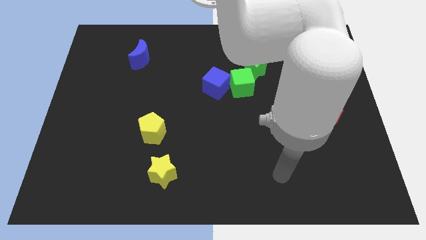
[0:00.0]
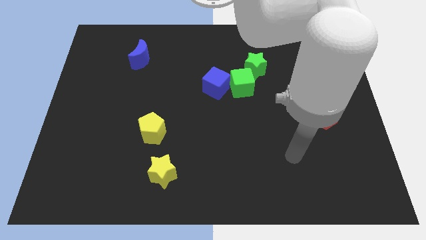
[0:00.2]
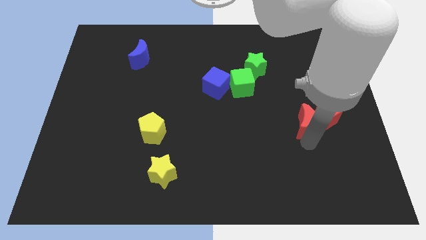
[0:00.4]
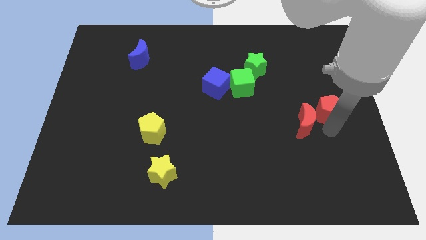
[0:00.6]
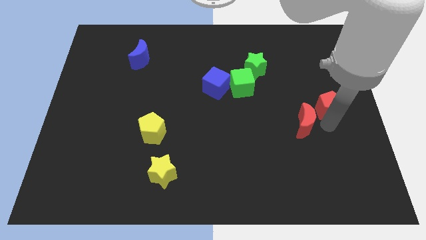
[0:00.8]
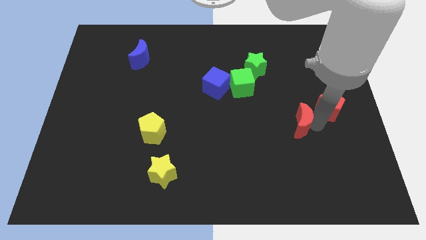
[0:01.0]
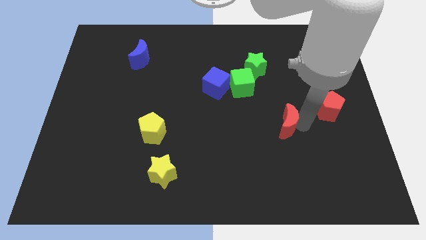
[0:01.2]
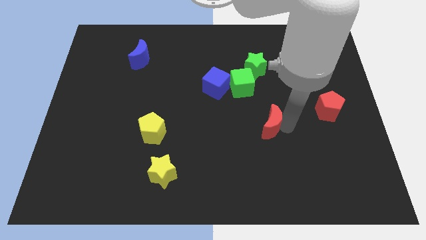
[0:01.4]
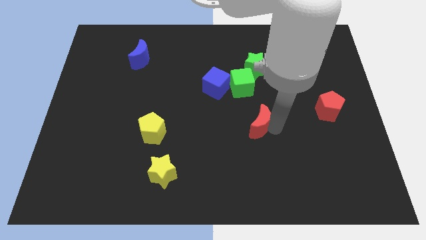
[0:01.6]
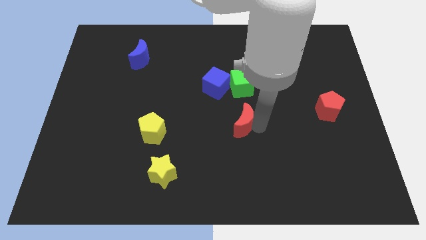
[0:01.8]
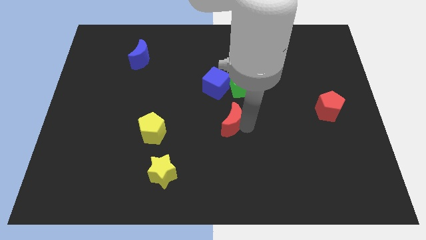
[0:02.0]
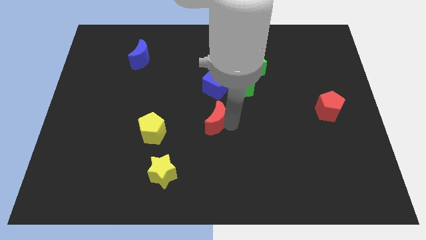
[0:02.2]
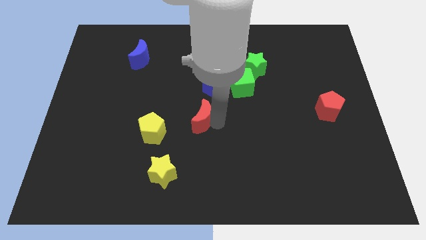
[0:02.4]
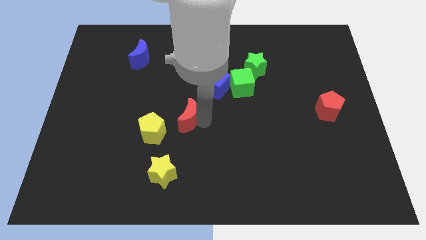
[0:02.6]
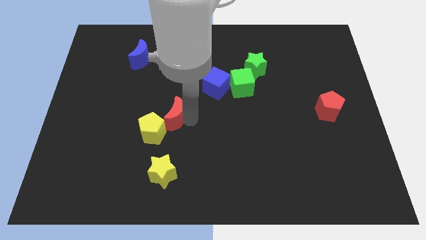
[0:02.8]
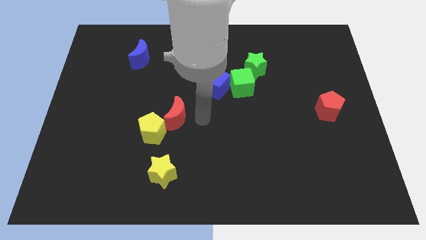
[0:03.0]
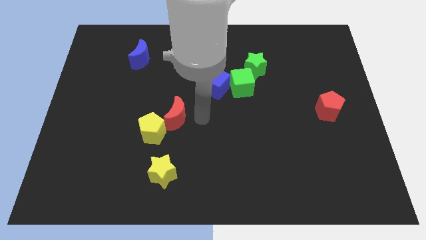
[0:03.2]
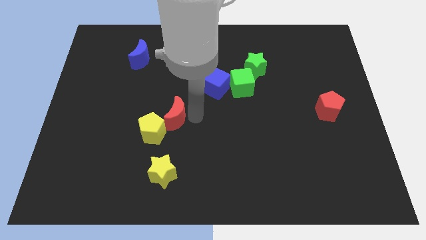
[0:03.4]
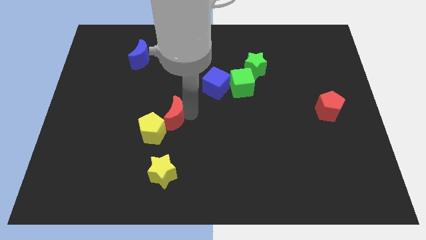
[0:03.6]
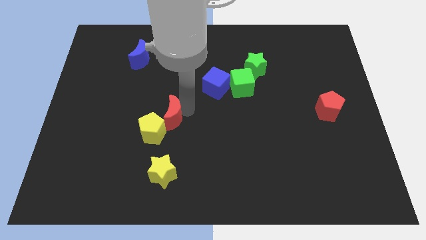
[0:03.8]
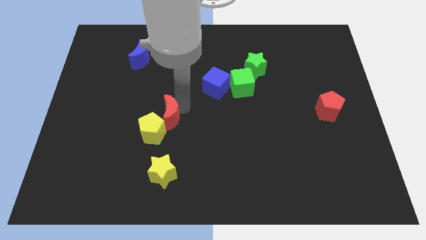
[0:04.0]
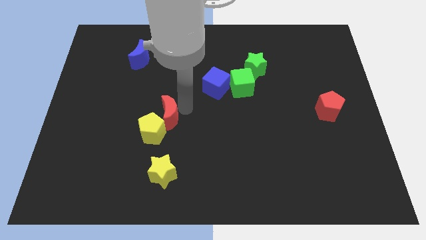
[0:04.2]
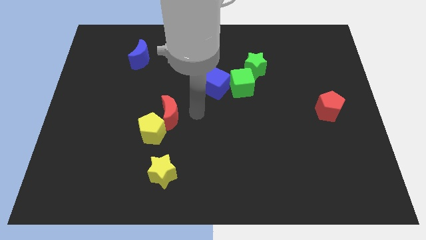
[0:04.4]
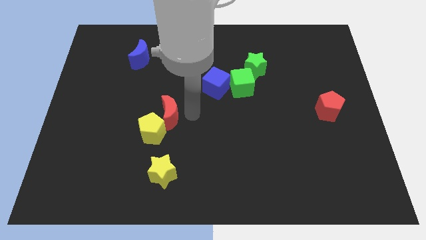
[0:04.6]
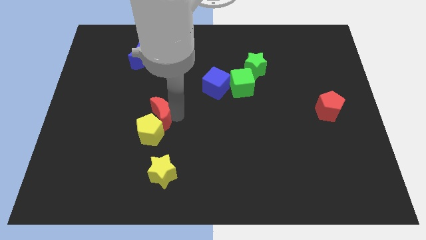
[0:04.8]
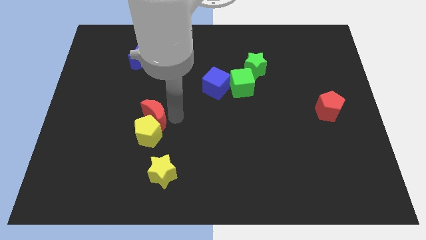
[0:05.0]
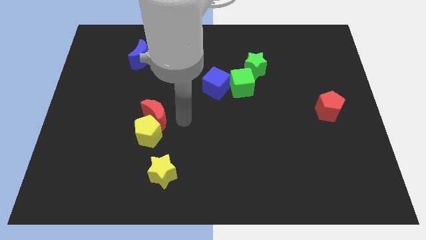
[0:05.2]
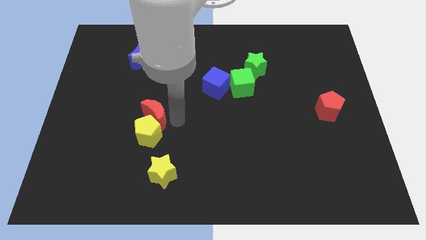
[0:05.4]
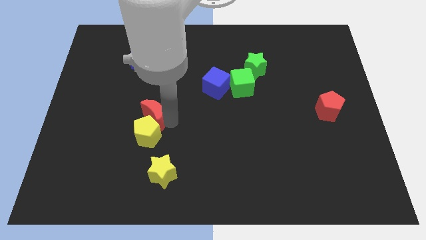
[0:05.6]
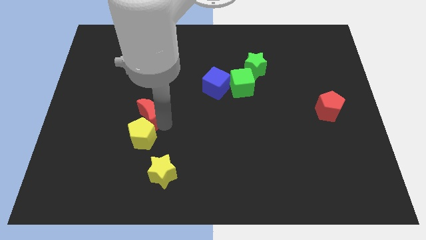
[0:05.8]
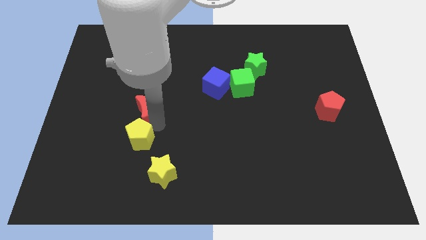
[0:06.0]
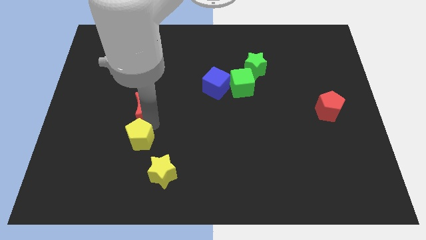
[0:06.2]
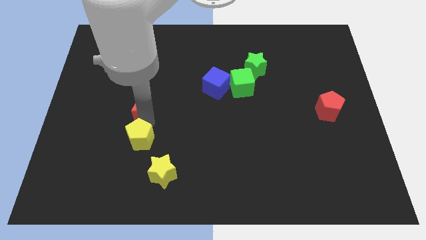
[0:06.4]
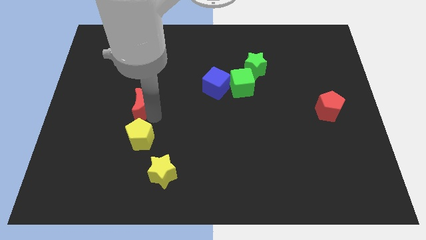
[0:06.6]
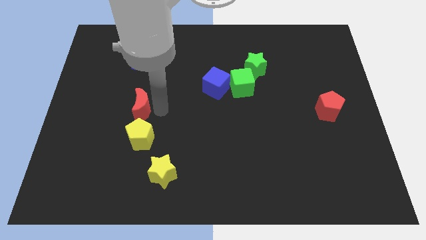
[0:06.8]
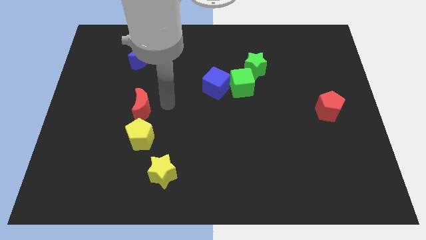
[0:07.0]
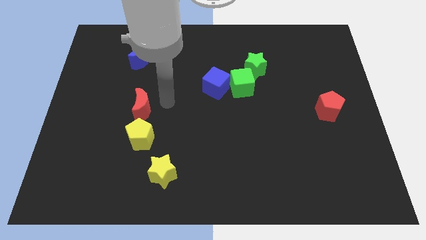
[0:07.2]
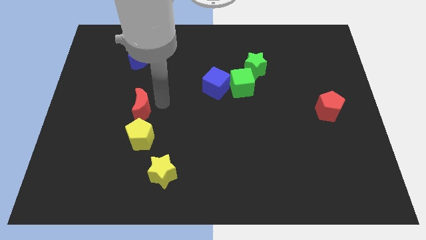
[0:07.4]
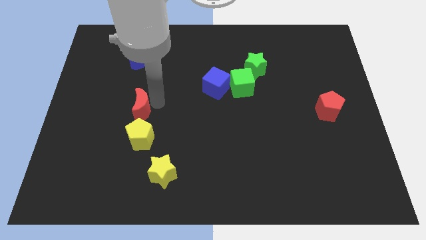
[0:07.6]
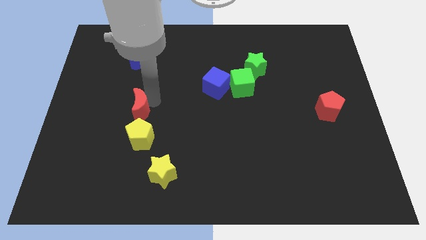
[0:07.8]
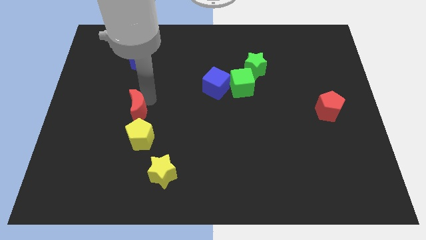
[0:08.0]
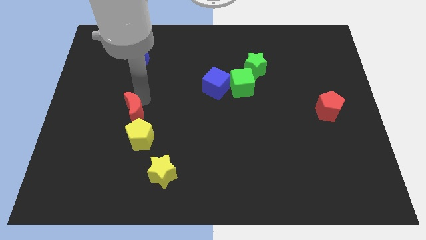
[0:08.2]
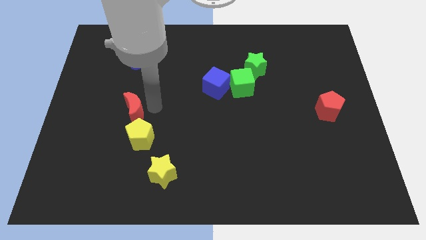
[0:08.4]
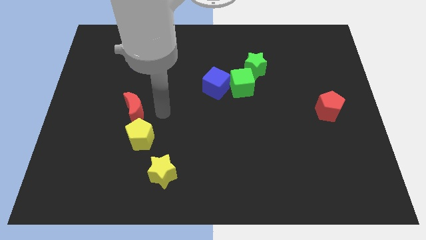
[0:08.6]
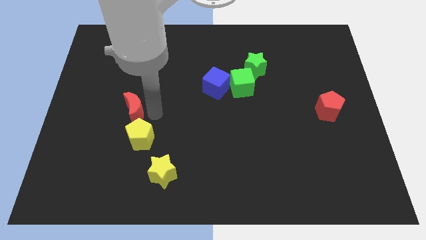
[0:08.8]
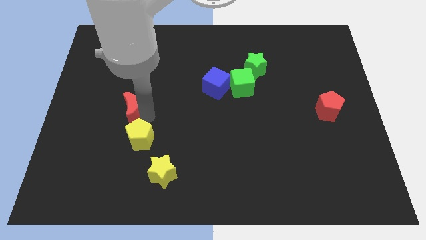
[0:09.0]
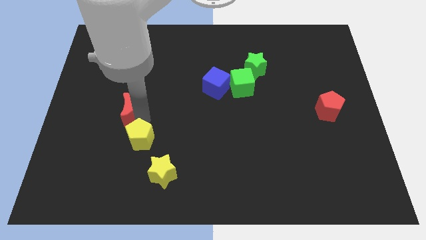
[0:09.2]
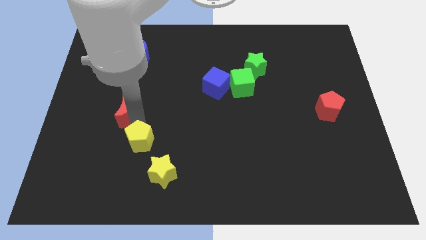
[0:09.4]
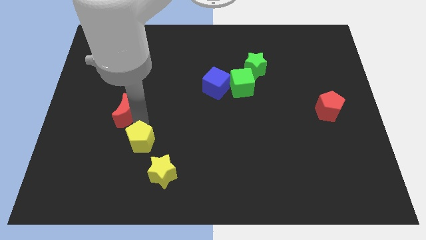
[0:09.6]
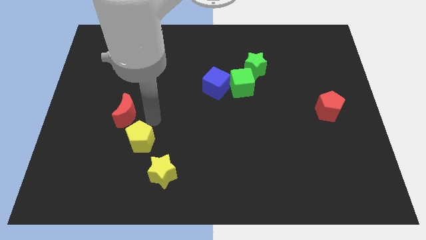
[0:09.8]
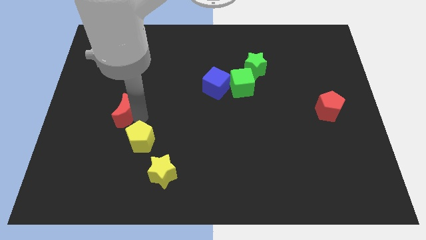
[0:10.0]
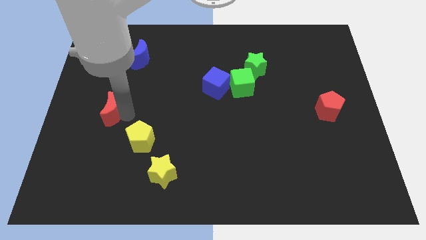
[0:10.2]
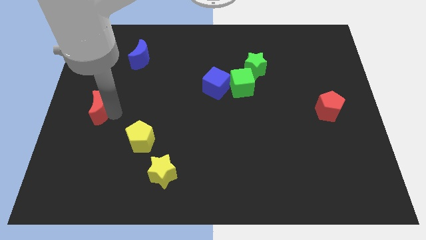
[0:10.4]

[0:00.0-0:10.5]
push the red moon to the center left
